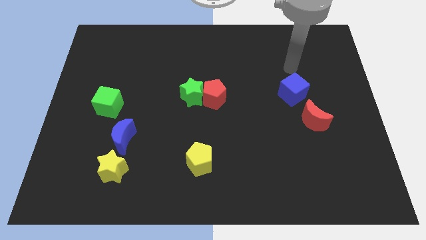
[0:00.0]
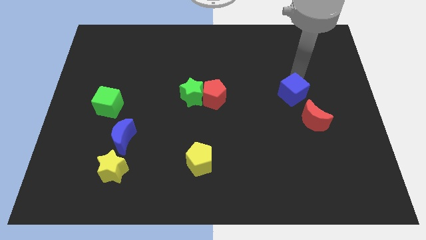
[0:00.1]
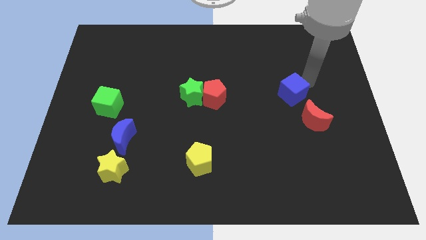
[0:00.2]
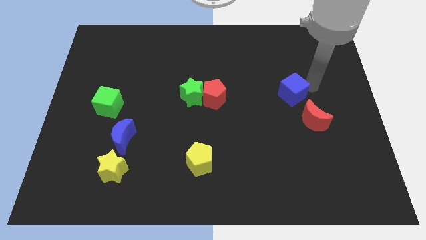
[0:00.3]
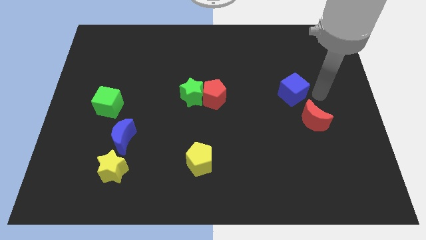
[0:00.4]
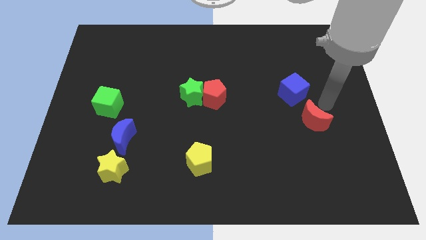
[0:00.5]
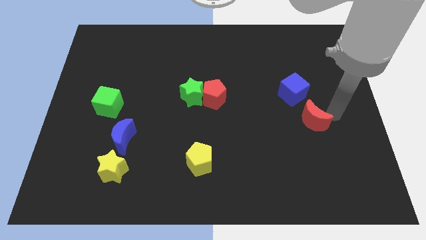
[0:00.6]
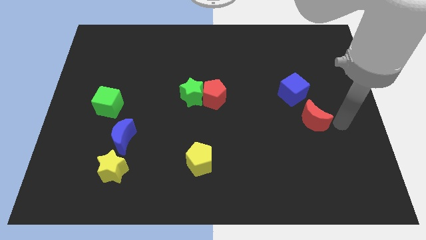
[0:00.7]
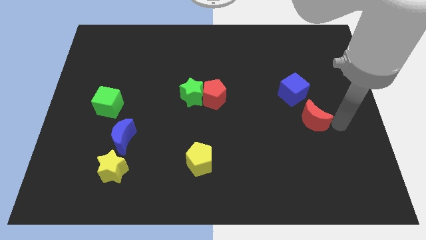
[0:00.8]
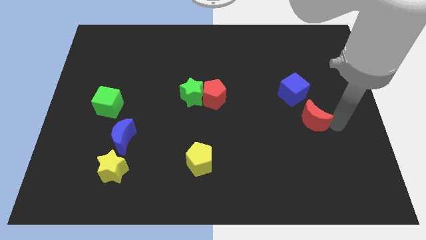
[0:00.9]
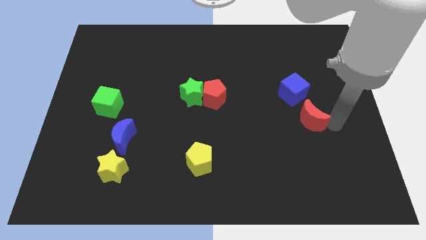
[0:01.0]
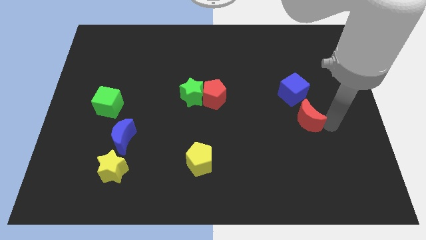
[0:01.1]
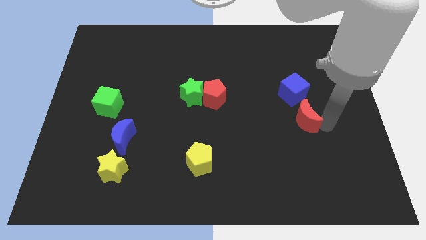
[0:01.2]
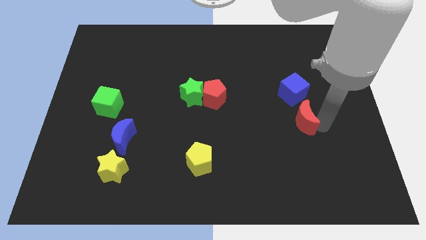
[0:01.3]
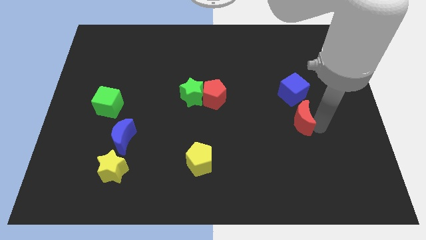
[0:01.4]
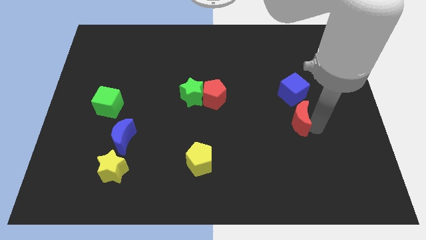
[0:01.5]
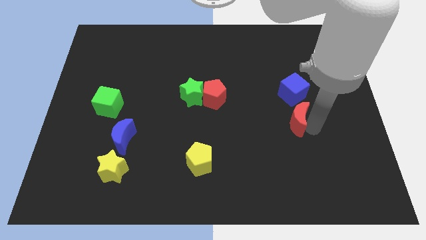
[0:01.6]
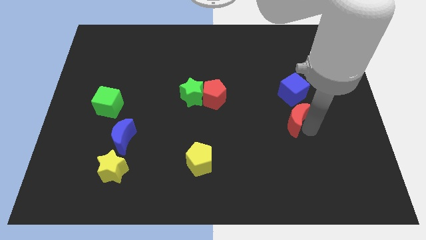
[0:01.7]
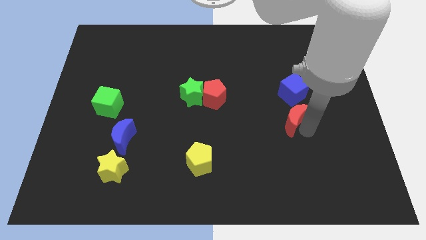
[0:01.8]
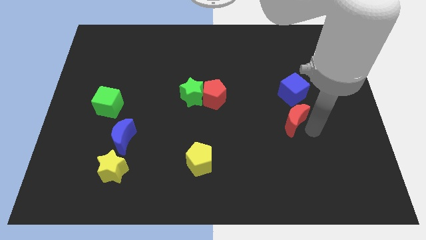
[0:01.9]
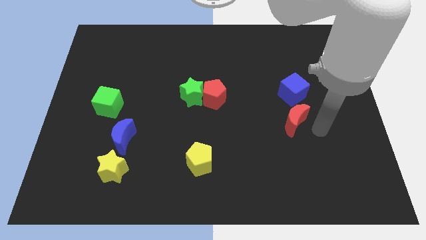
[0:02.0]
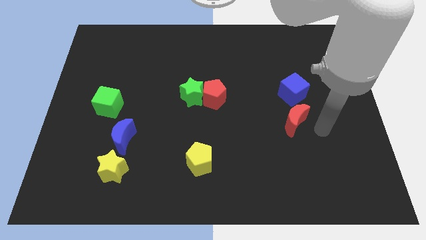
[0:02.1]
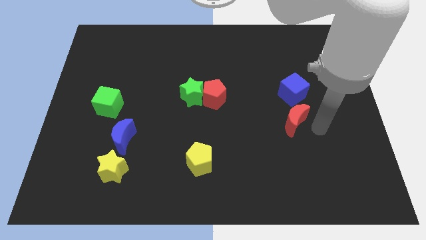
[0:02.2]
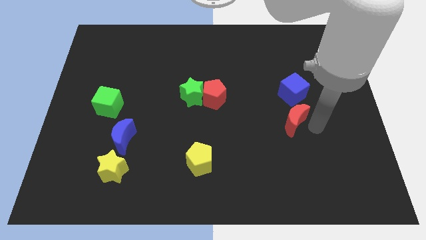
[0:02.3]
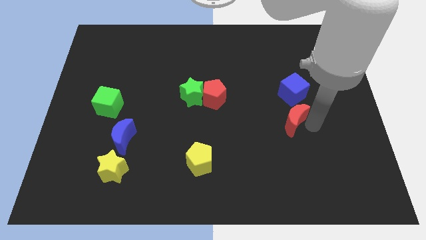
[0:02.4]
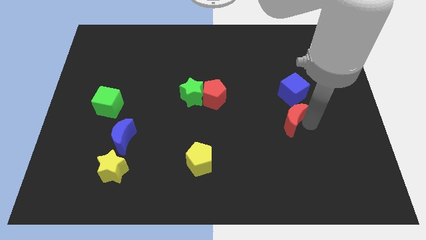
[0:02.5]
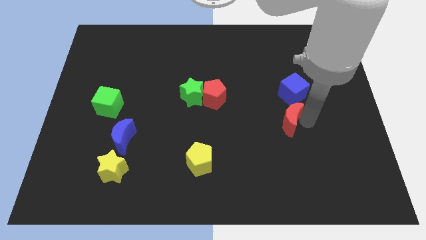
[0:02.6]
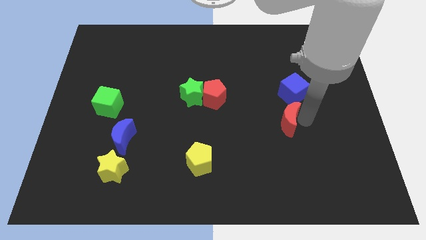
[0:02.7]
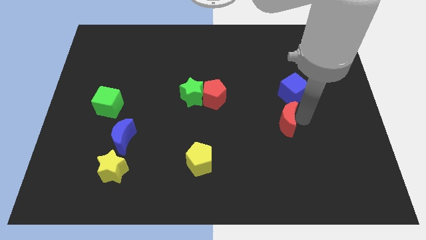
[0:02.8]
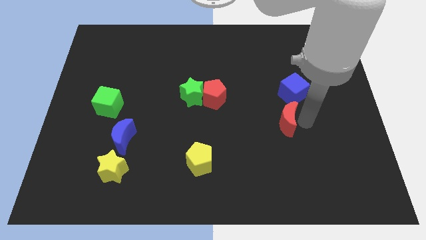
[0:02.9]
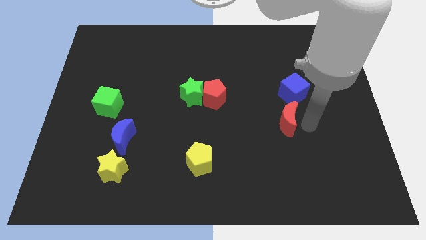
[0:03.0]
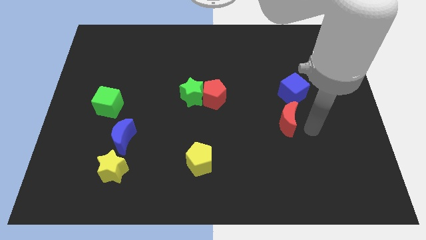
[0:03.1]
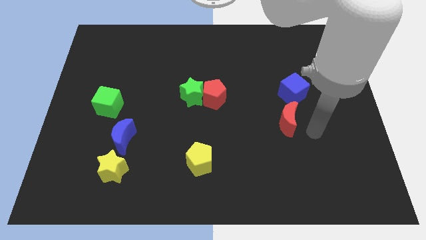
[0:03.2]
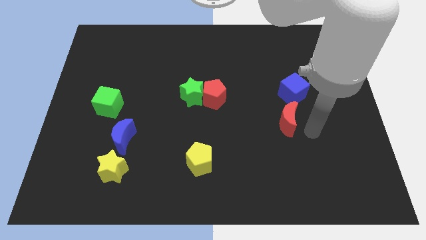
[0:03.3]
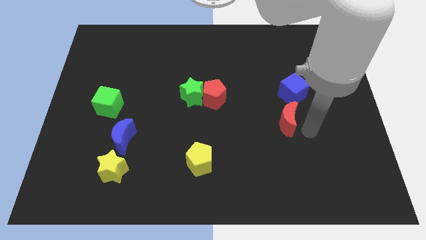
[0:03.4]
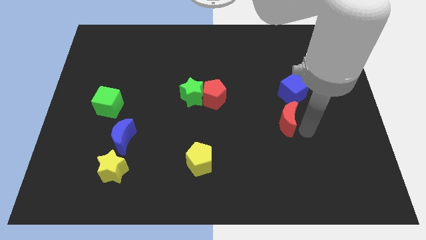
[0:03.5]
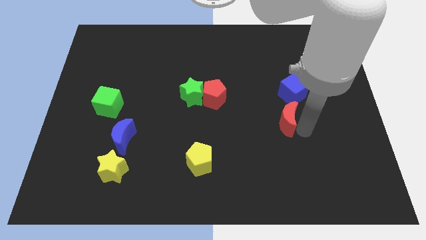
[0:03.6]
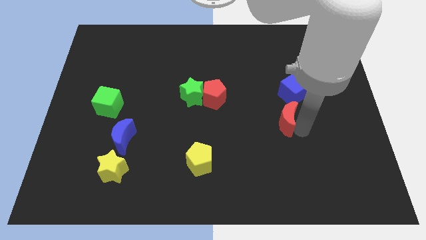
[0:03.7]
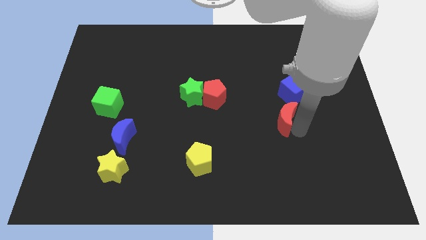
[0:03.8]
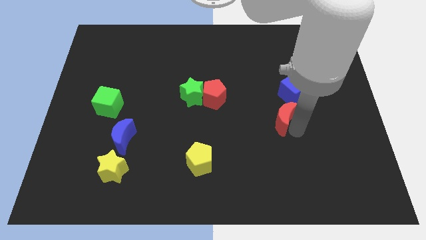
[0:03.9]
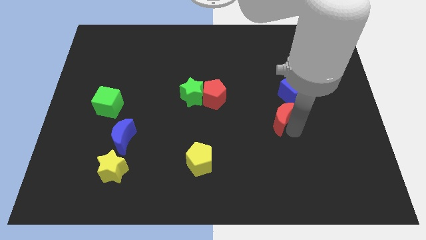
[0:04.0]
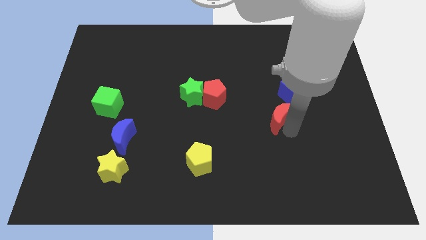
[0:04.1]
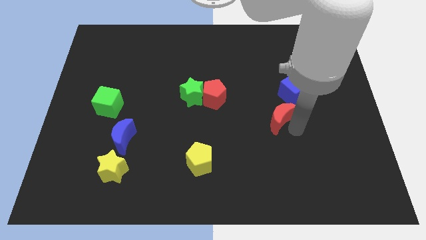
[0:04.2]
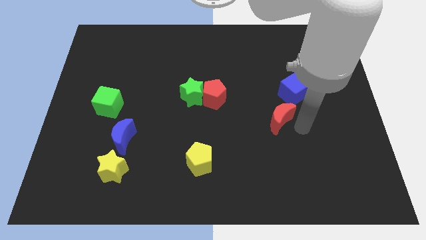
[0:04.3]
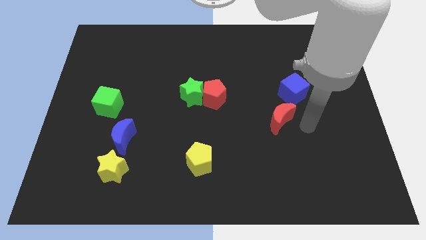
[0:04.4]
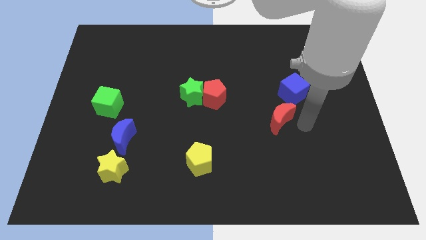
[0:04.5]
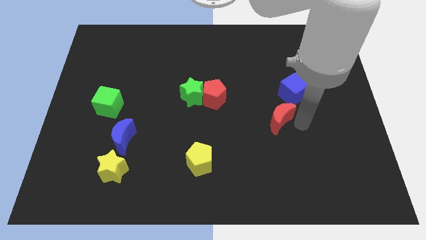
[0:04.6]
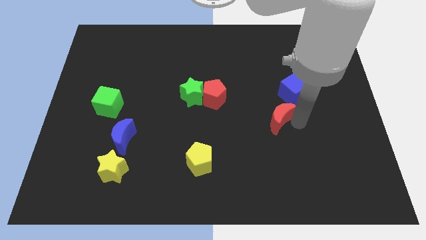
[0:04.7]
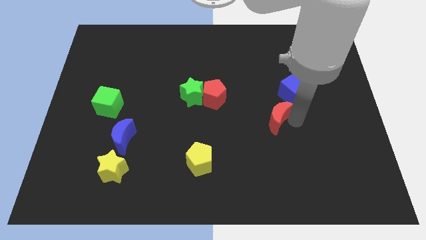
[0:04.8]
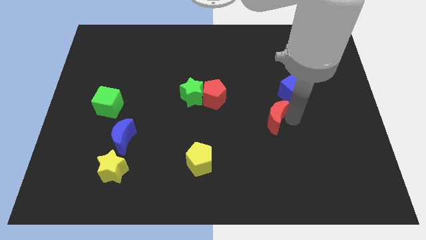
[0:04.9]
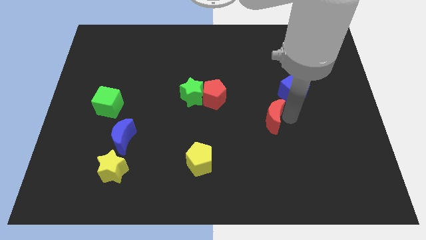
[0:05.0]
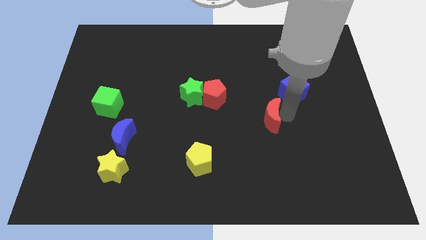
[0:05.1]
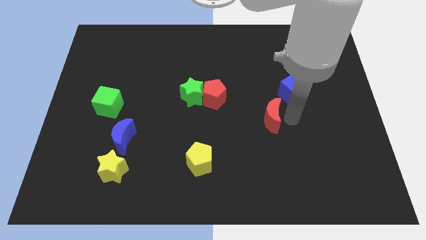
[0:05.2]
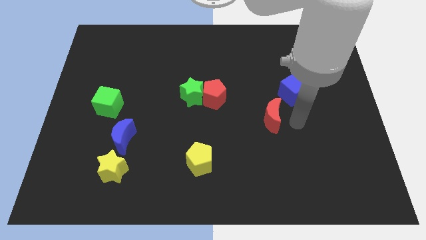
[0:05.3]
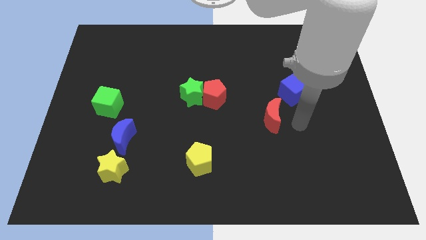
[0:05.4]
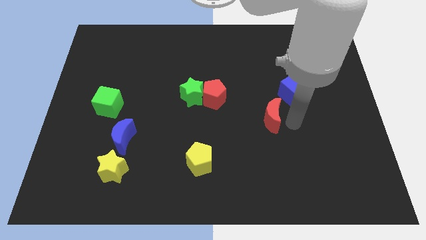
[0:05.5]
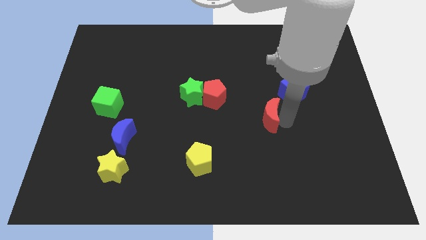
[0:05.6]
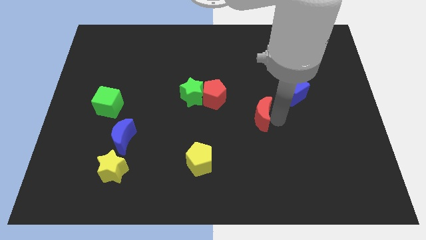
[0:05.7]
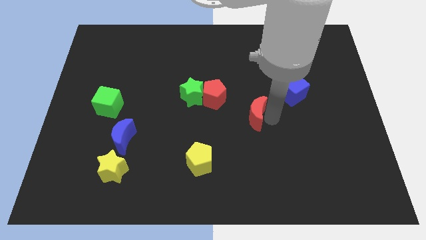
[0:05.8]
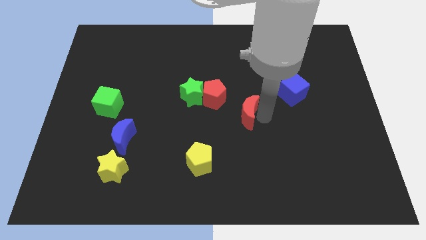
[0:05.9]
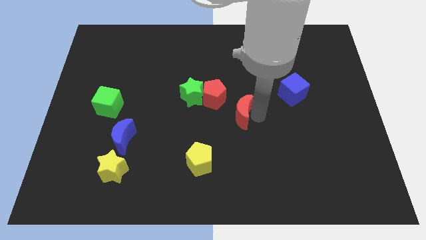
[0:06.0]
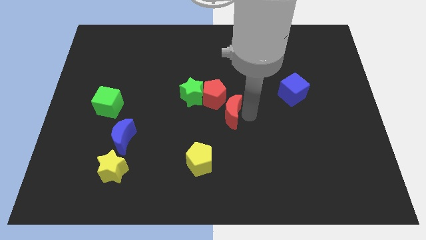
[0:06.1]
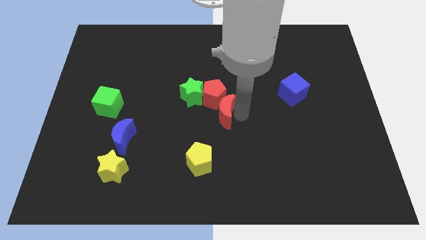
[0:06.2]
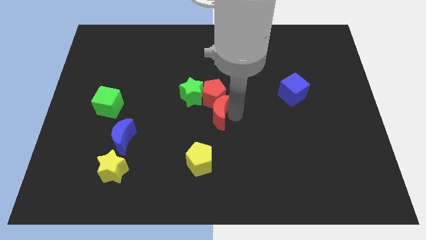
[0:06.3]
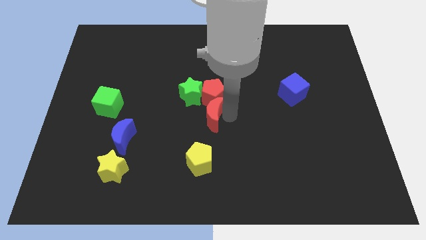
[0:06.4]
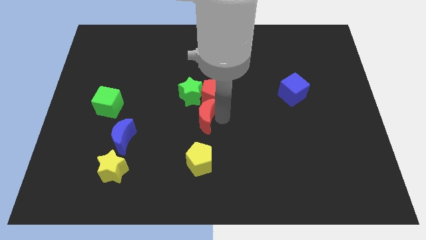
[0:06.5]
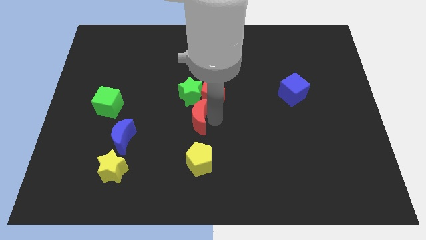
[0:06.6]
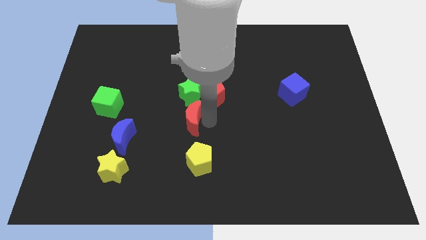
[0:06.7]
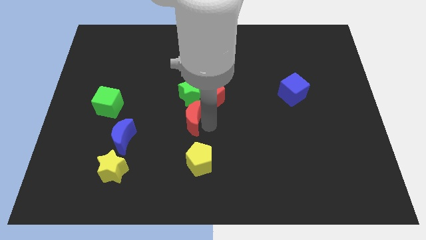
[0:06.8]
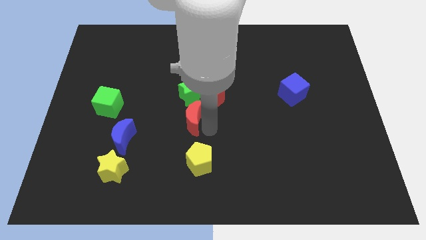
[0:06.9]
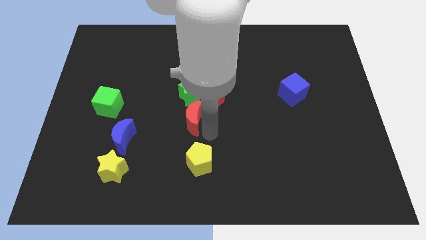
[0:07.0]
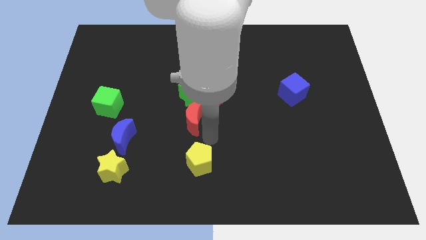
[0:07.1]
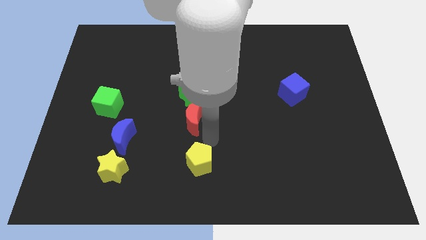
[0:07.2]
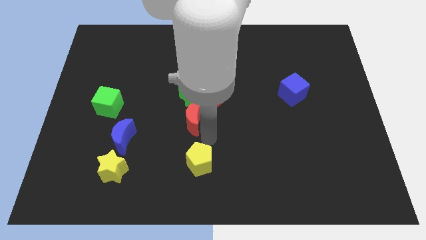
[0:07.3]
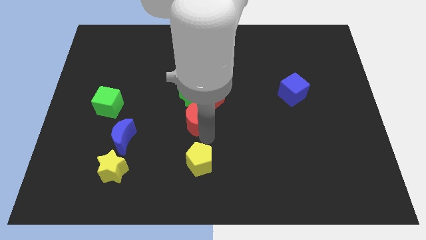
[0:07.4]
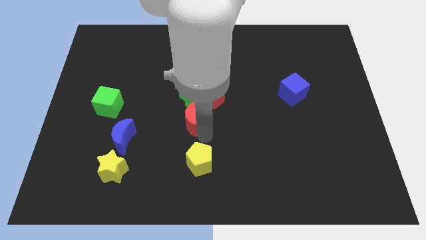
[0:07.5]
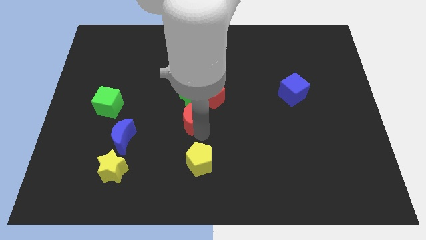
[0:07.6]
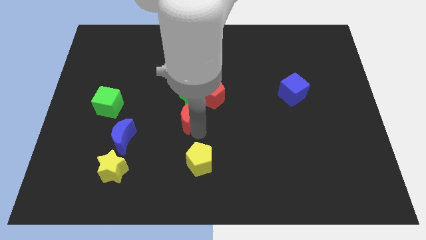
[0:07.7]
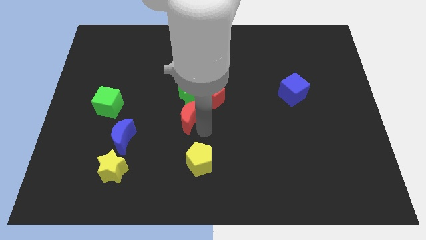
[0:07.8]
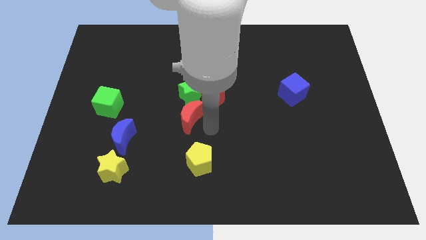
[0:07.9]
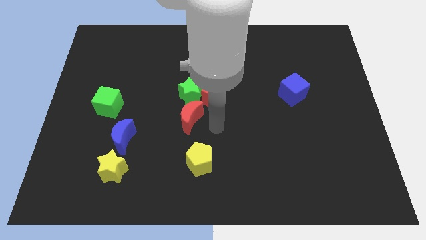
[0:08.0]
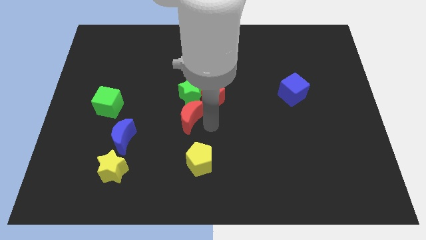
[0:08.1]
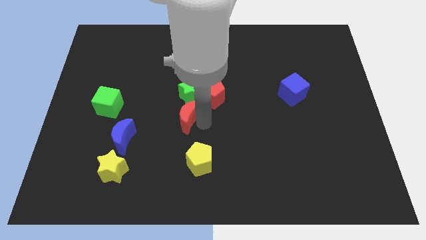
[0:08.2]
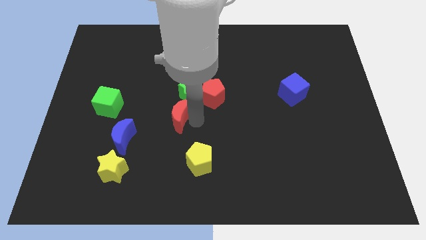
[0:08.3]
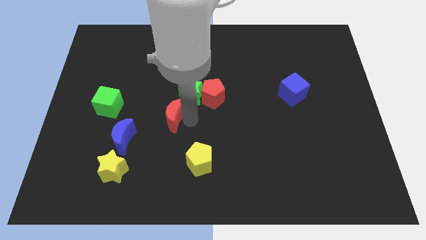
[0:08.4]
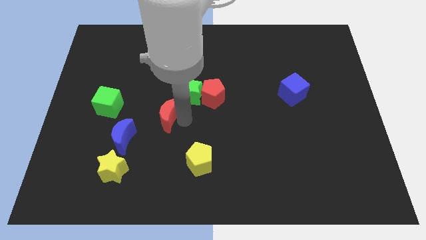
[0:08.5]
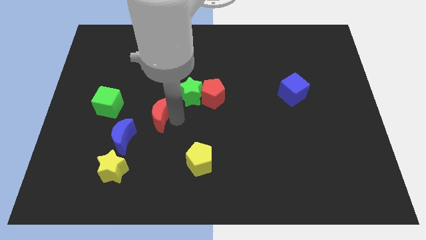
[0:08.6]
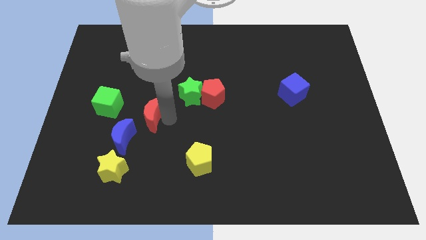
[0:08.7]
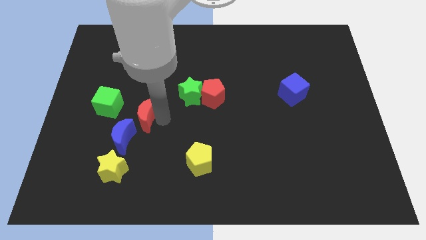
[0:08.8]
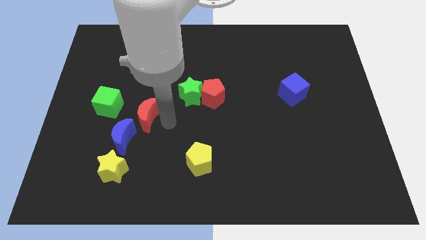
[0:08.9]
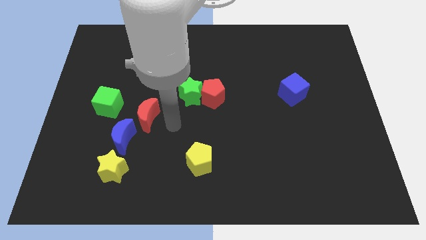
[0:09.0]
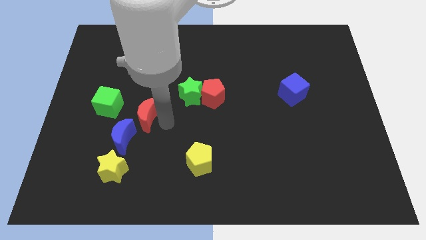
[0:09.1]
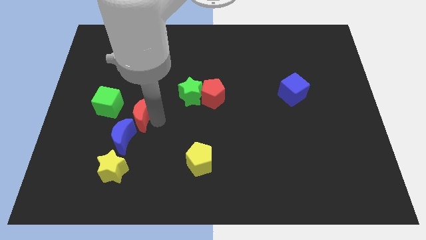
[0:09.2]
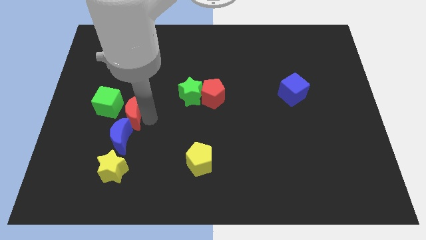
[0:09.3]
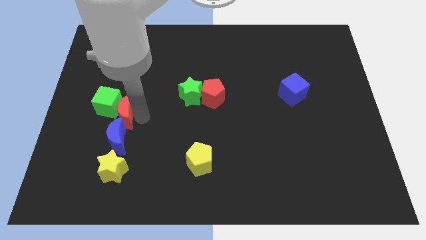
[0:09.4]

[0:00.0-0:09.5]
put the red moon close to the green cube
